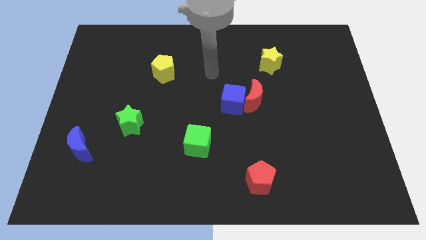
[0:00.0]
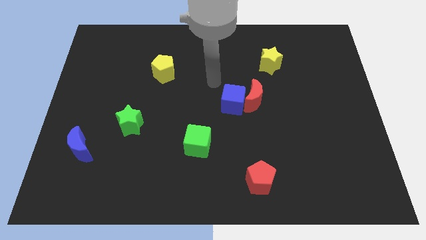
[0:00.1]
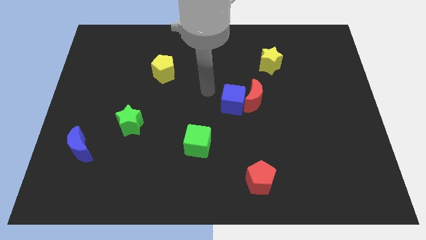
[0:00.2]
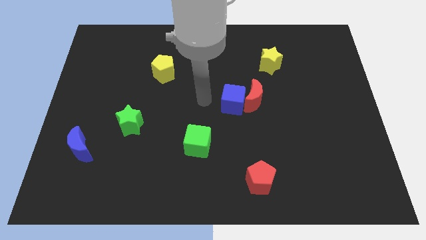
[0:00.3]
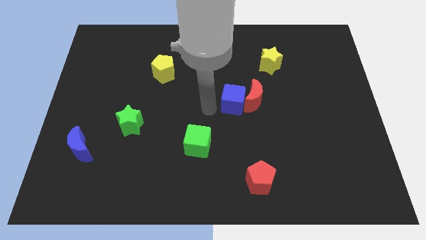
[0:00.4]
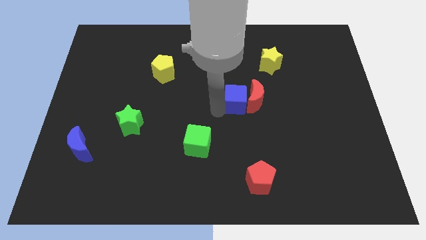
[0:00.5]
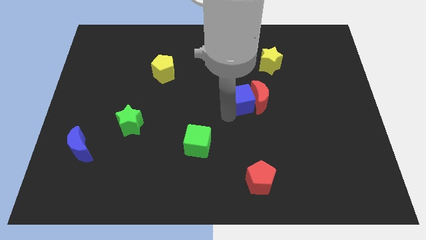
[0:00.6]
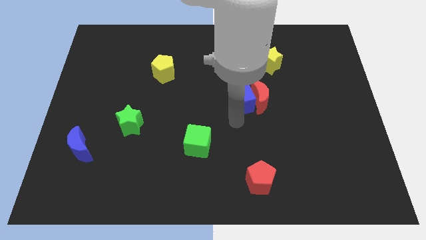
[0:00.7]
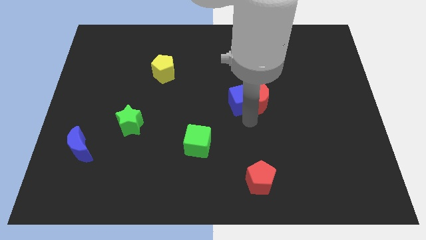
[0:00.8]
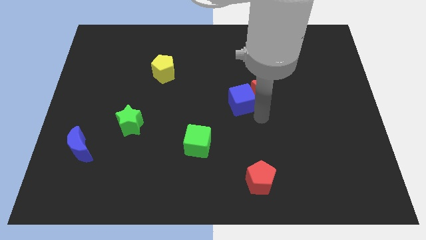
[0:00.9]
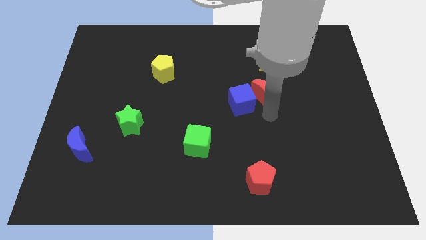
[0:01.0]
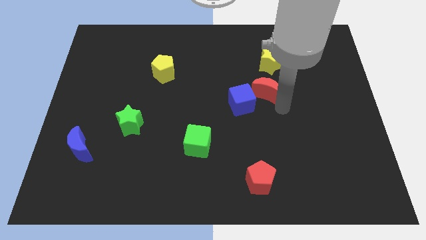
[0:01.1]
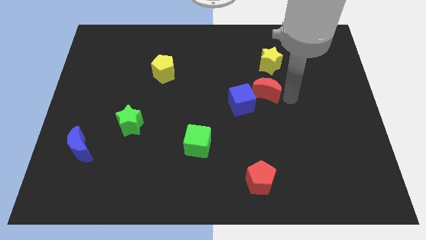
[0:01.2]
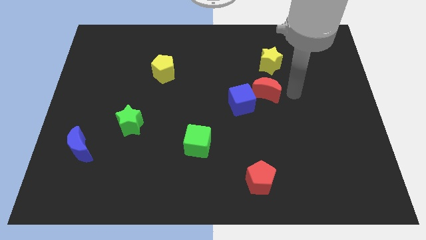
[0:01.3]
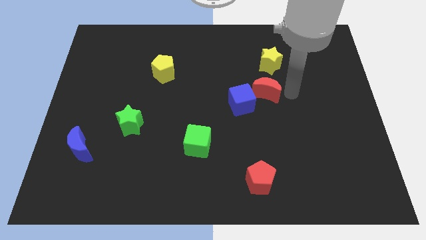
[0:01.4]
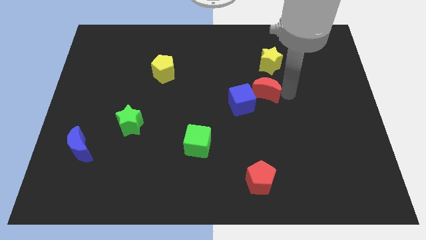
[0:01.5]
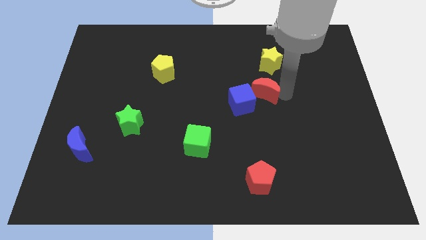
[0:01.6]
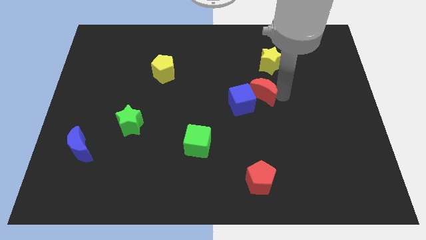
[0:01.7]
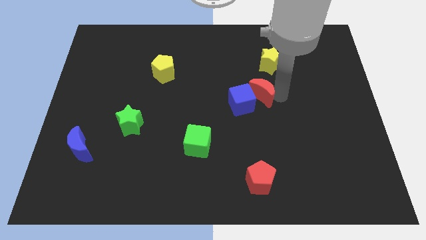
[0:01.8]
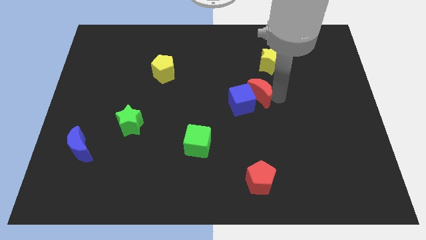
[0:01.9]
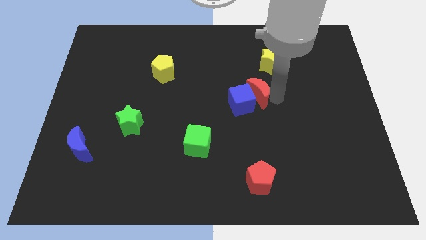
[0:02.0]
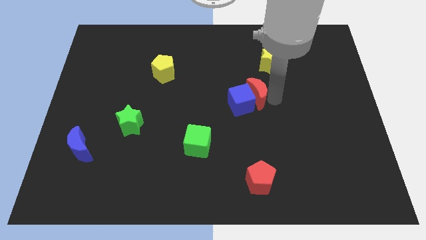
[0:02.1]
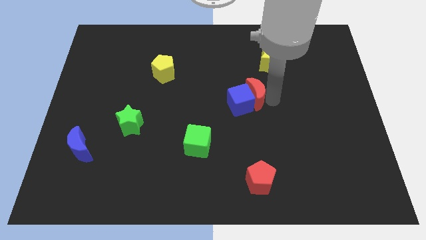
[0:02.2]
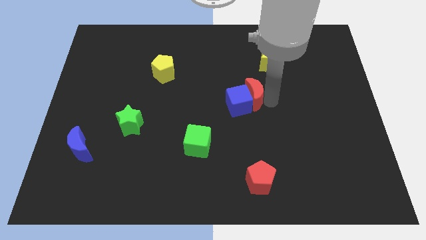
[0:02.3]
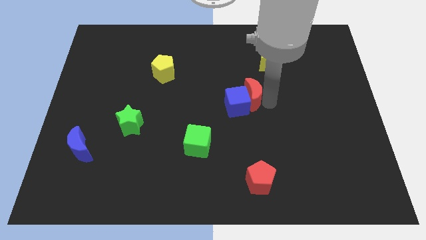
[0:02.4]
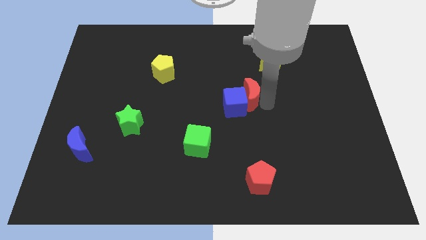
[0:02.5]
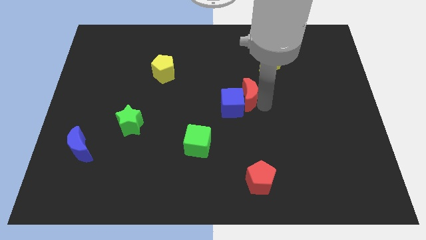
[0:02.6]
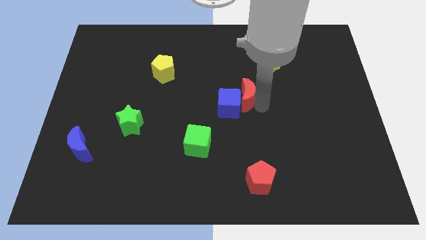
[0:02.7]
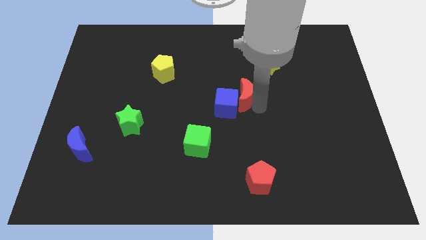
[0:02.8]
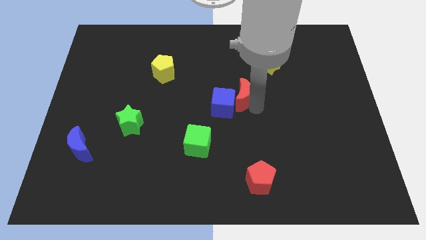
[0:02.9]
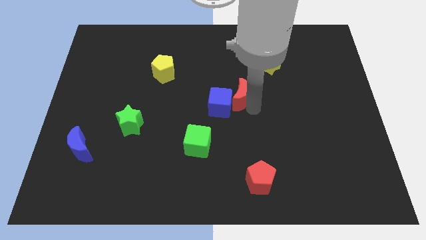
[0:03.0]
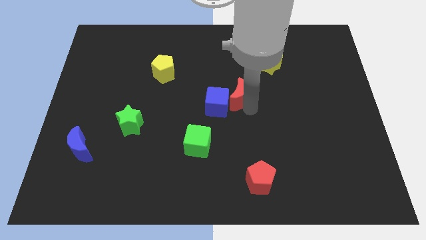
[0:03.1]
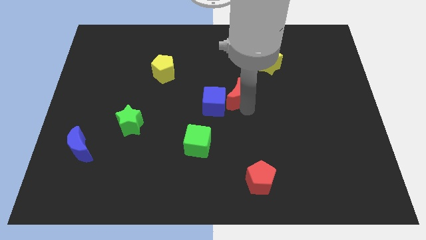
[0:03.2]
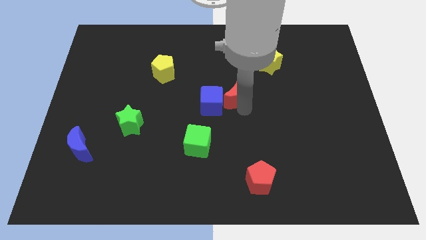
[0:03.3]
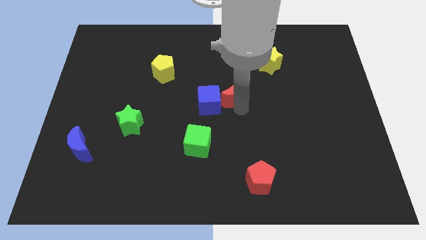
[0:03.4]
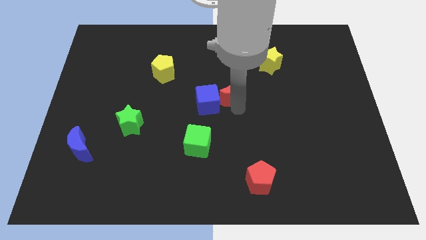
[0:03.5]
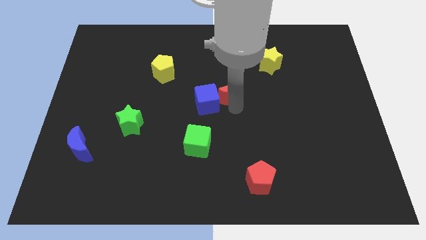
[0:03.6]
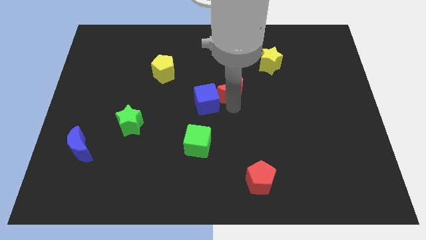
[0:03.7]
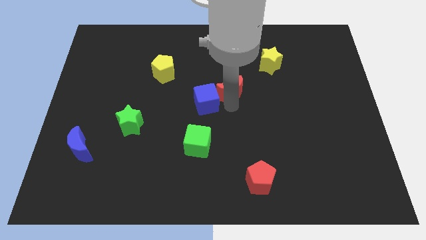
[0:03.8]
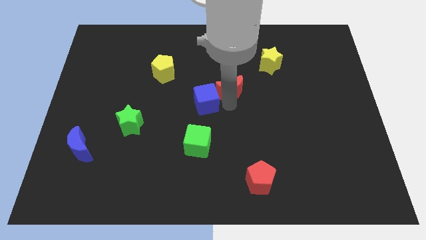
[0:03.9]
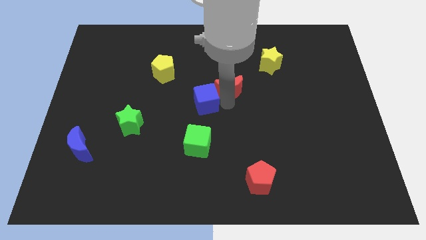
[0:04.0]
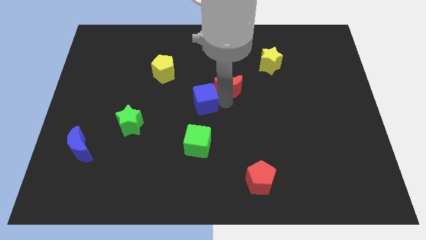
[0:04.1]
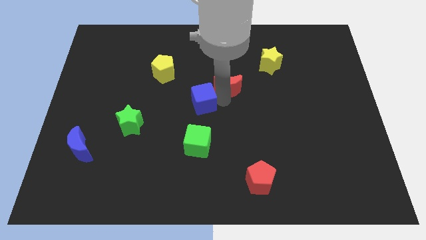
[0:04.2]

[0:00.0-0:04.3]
move the red moon somewhat up and then to the left

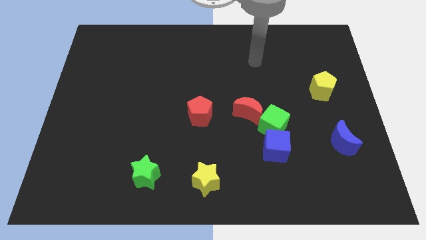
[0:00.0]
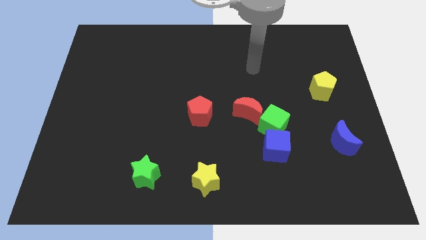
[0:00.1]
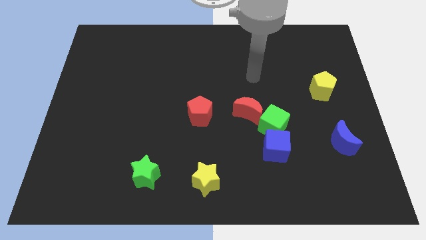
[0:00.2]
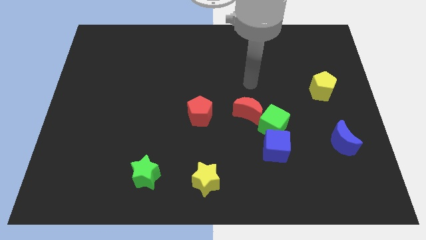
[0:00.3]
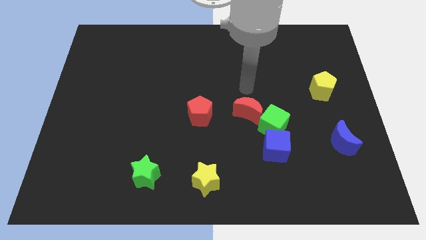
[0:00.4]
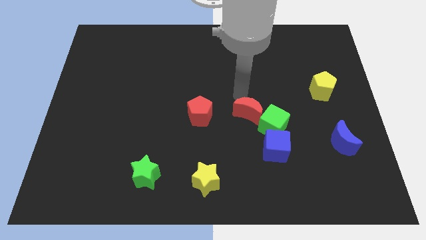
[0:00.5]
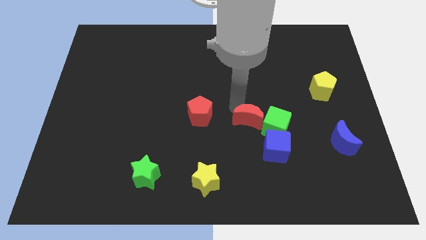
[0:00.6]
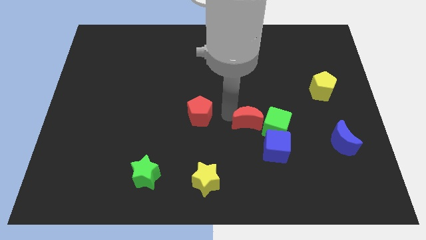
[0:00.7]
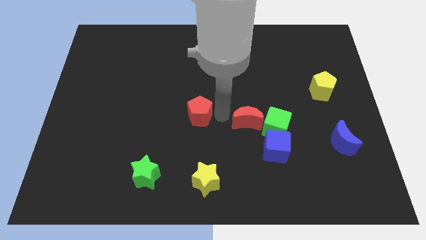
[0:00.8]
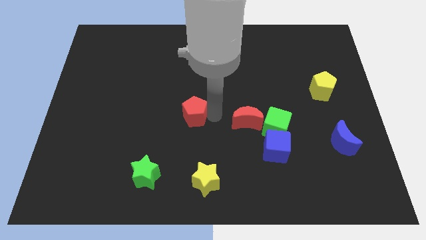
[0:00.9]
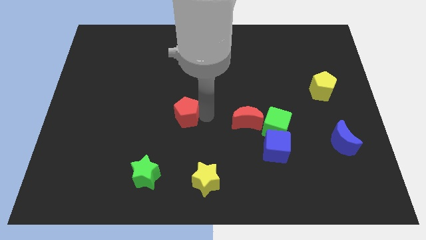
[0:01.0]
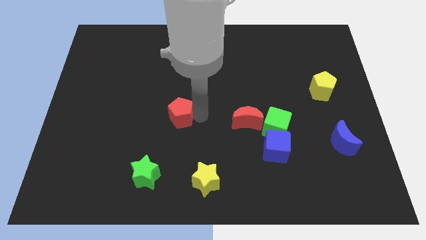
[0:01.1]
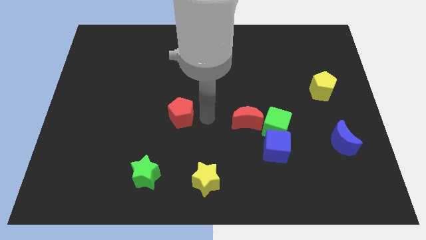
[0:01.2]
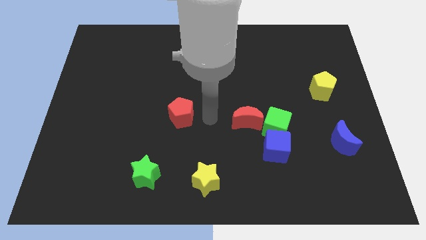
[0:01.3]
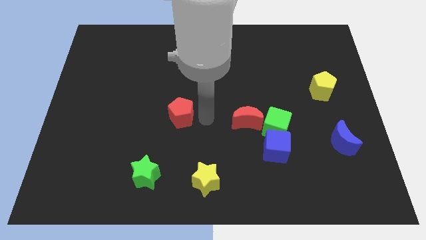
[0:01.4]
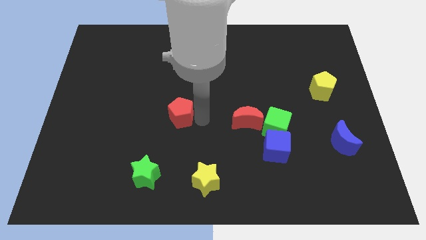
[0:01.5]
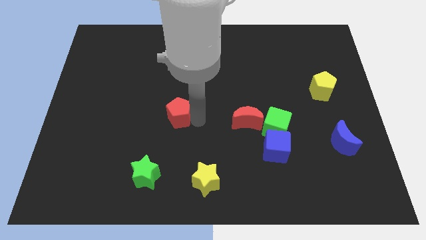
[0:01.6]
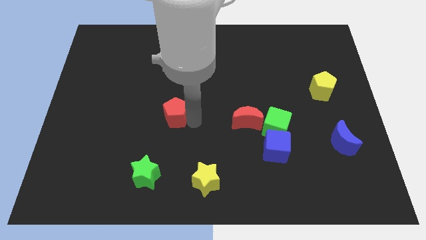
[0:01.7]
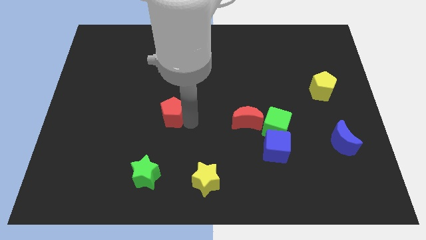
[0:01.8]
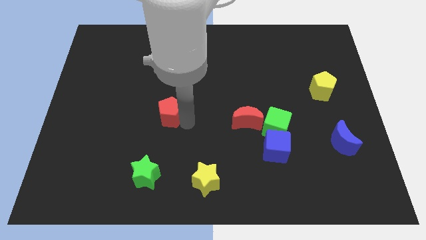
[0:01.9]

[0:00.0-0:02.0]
push the red pentagon a bit to the left

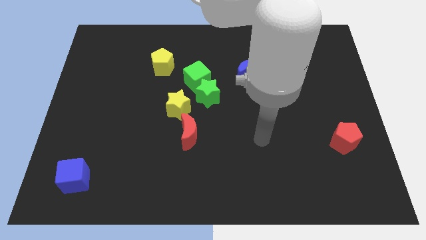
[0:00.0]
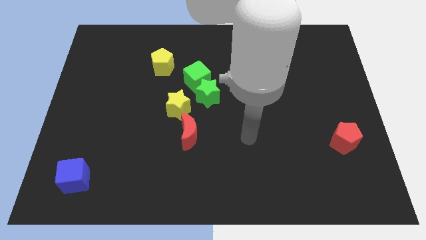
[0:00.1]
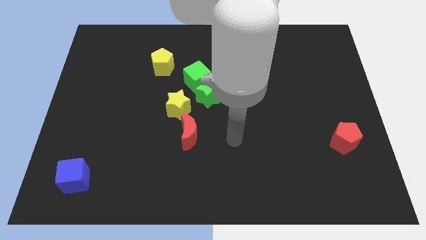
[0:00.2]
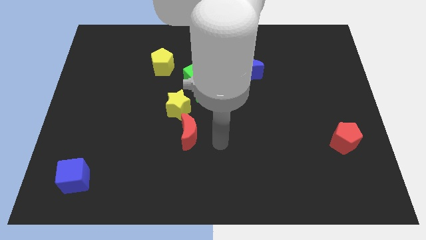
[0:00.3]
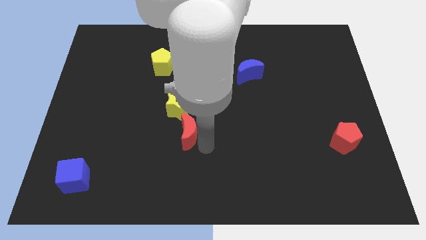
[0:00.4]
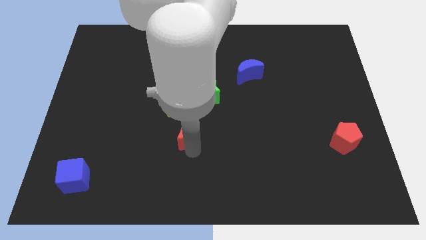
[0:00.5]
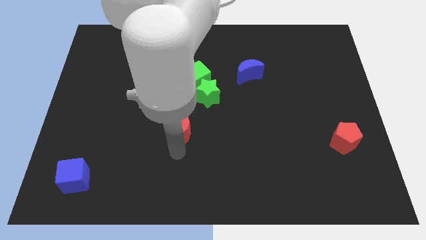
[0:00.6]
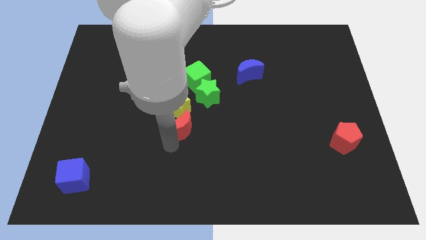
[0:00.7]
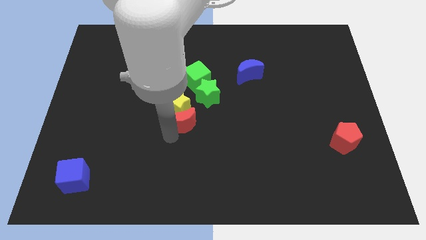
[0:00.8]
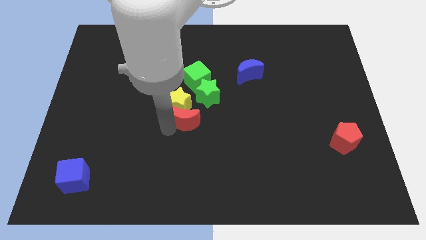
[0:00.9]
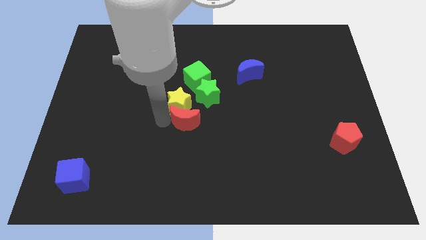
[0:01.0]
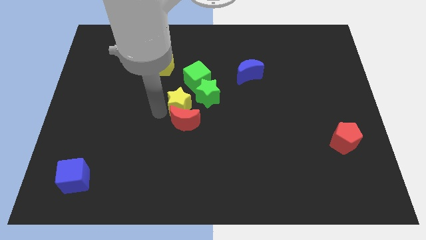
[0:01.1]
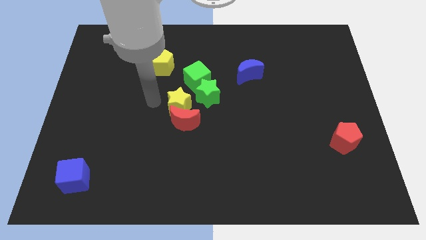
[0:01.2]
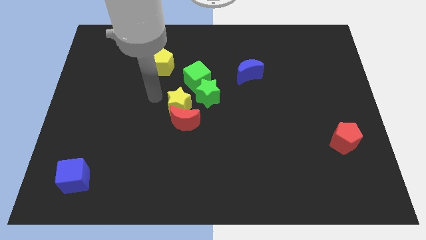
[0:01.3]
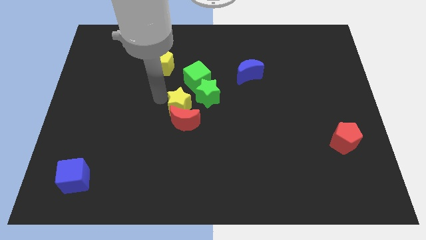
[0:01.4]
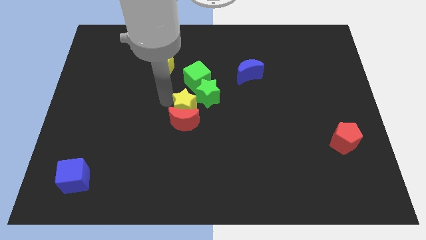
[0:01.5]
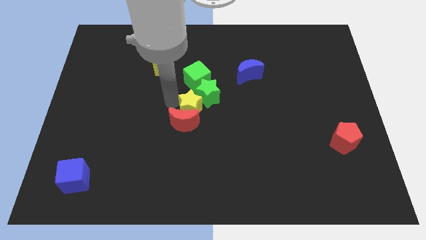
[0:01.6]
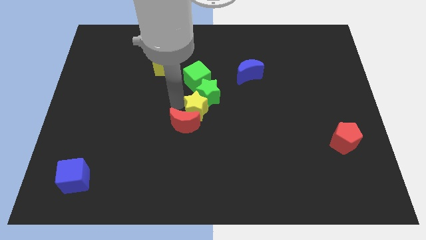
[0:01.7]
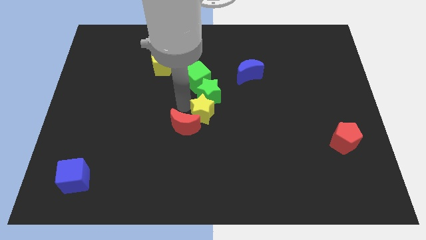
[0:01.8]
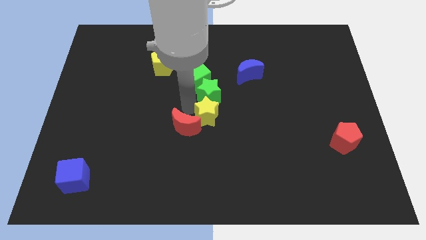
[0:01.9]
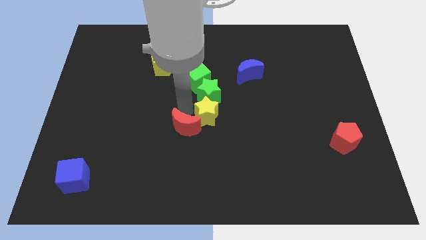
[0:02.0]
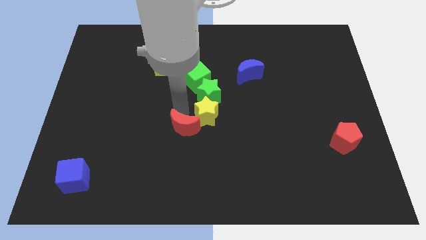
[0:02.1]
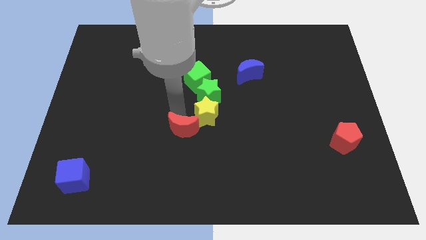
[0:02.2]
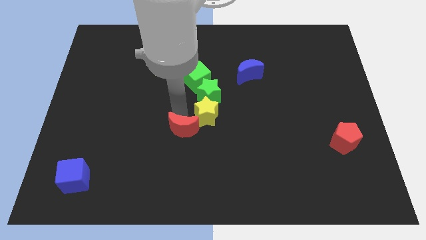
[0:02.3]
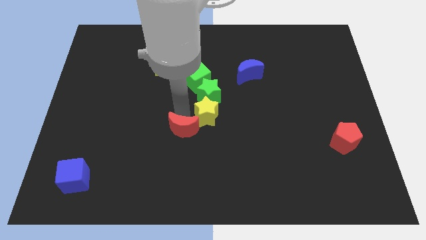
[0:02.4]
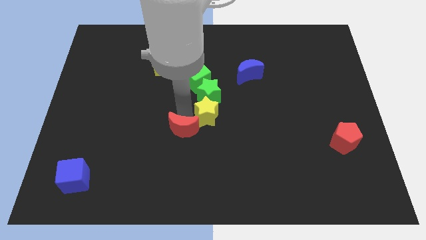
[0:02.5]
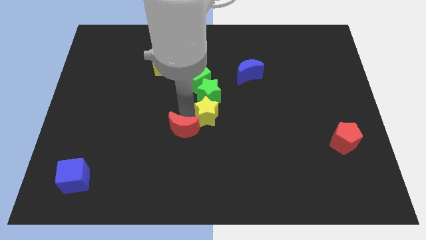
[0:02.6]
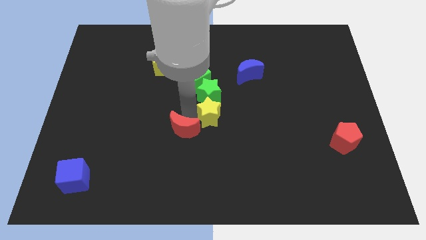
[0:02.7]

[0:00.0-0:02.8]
slightly slide the yellow star right
